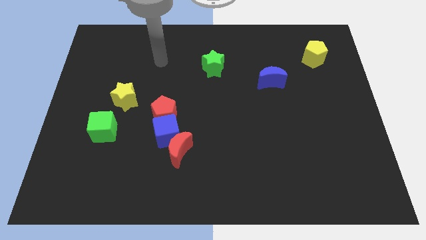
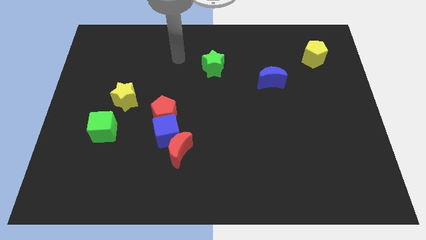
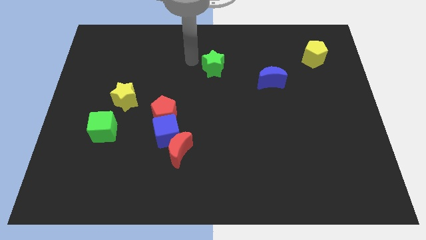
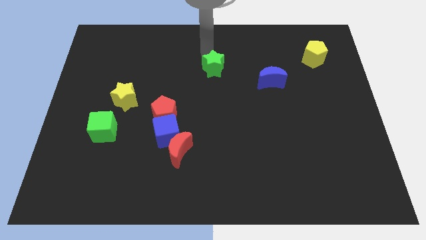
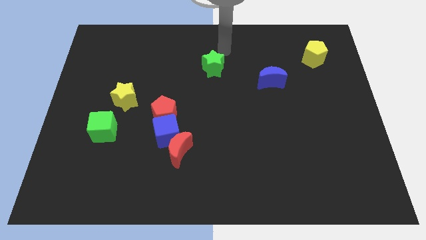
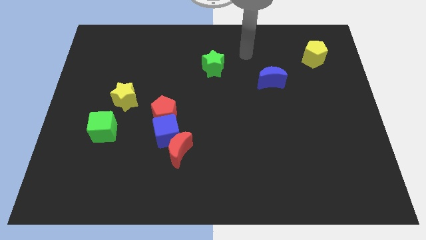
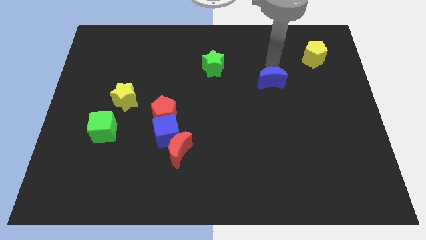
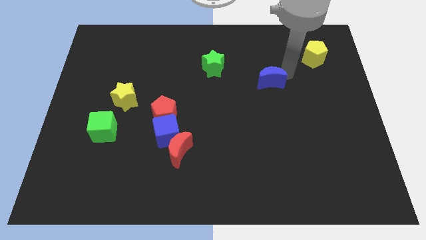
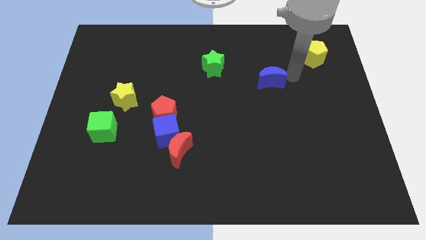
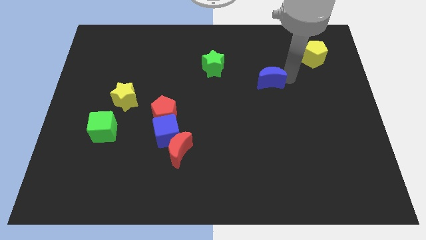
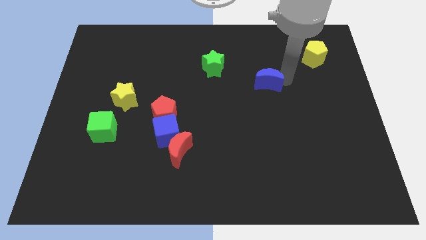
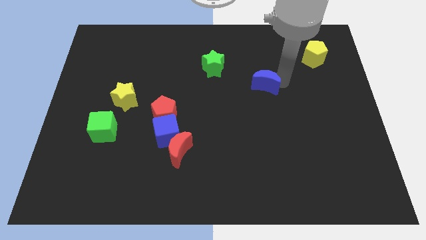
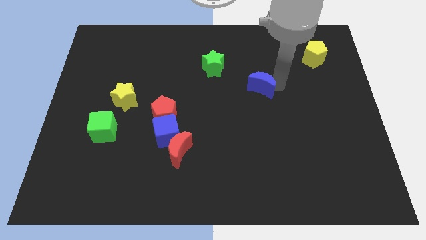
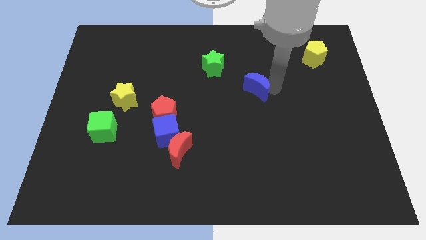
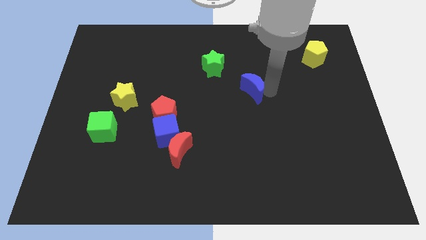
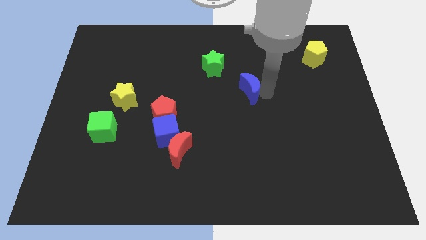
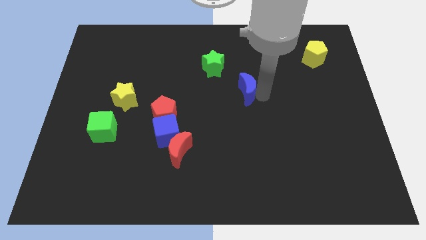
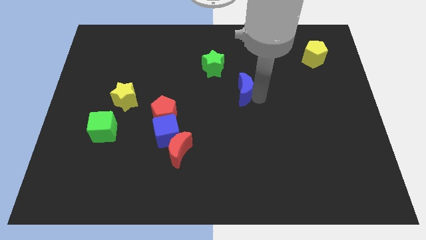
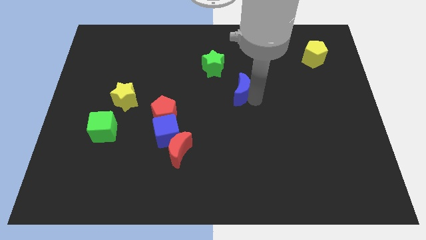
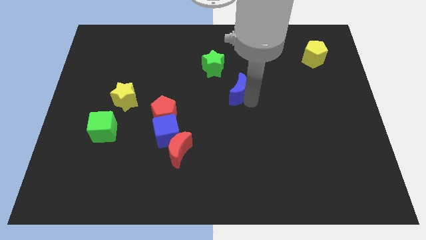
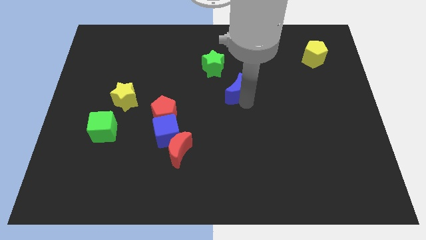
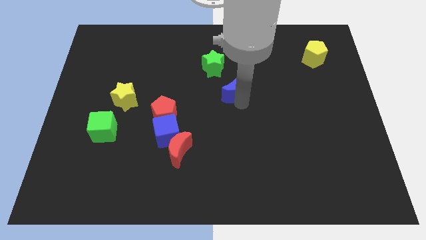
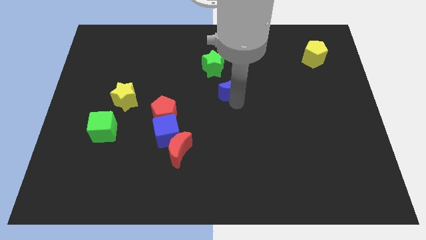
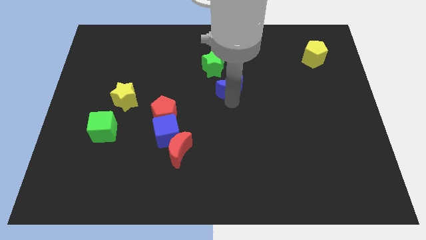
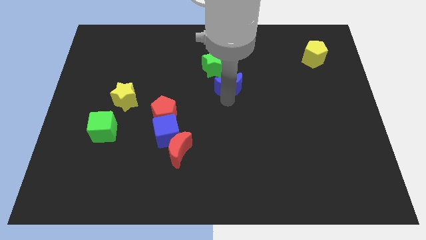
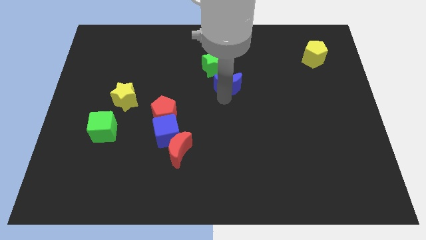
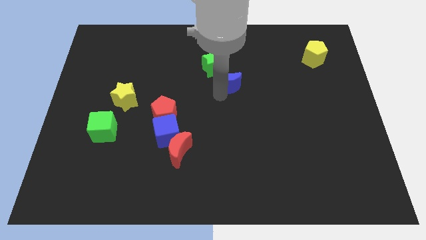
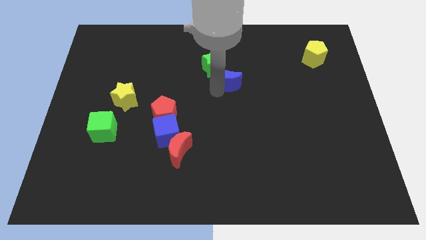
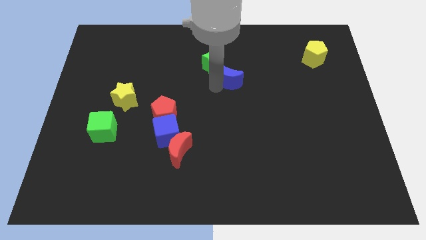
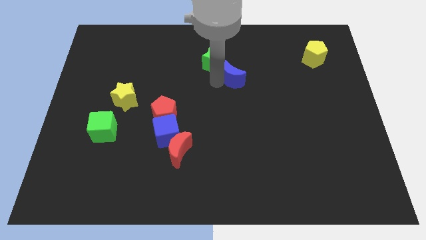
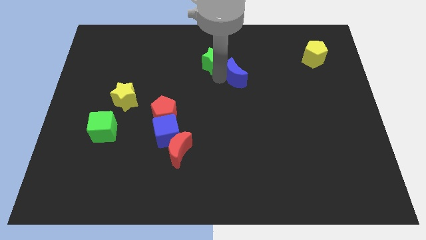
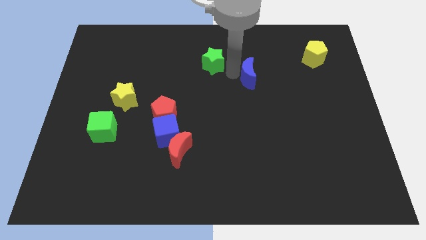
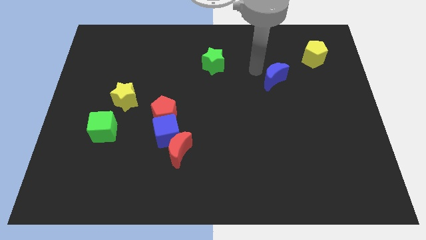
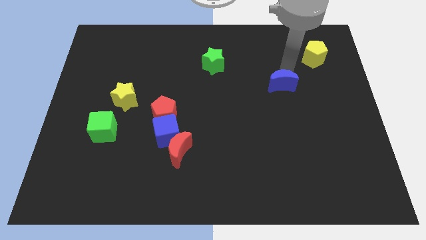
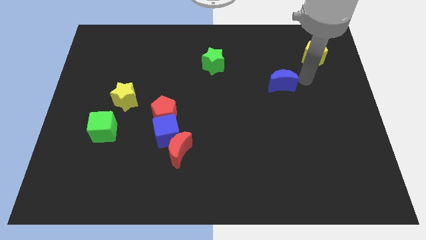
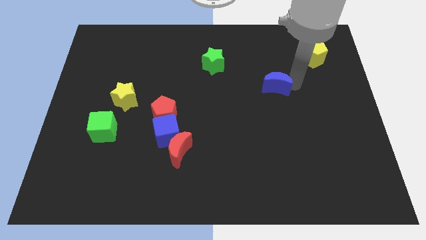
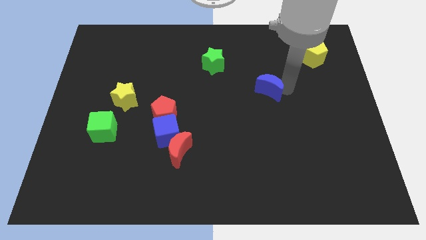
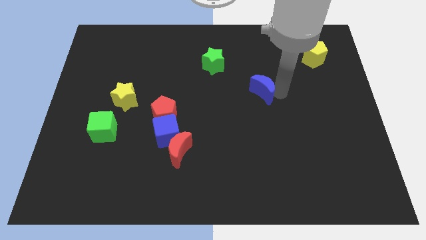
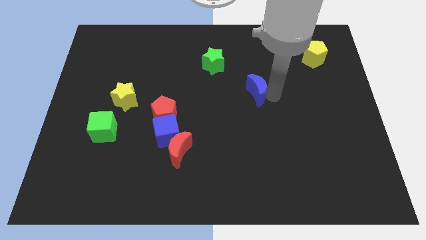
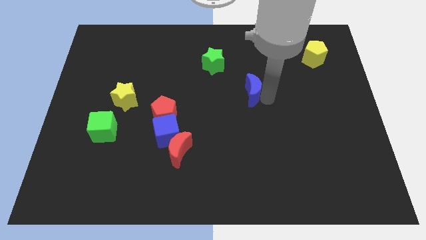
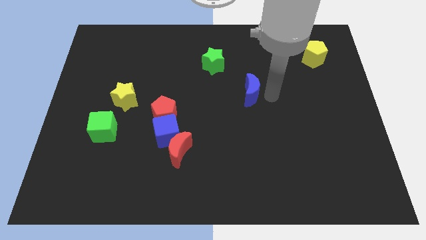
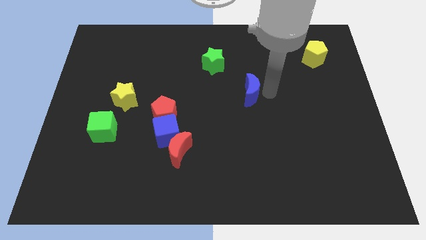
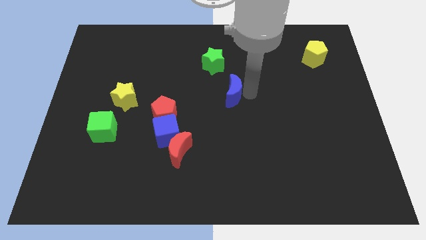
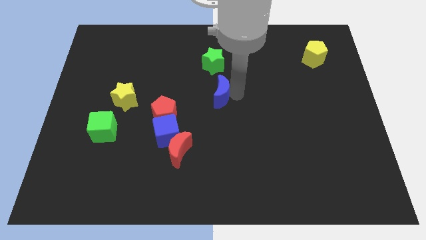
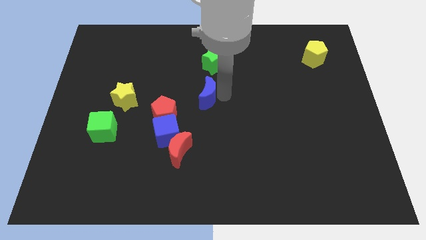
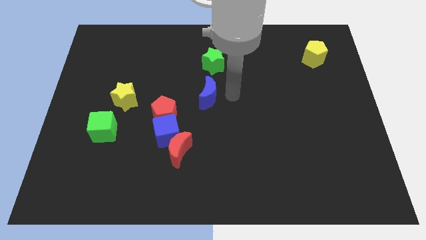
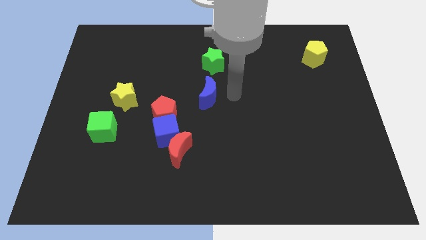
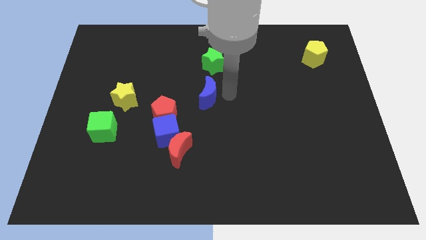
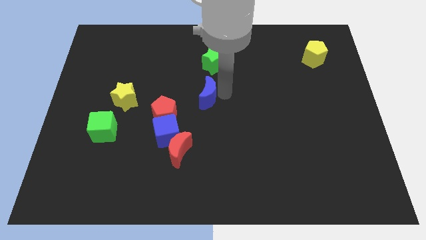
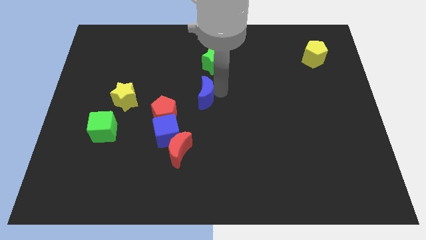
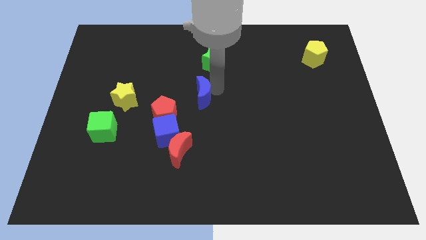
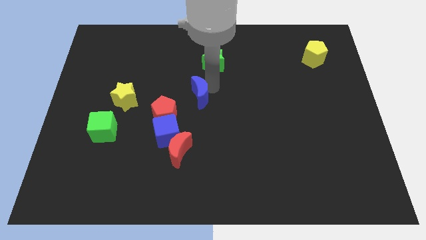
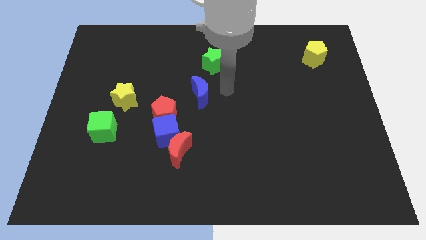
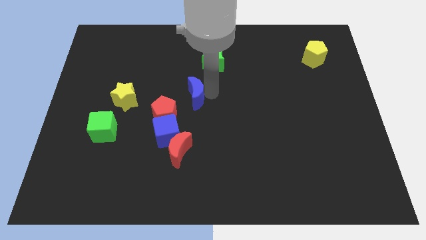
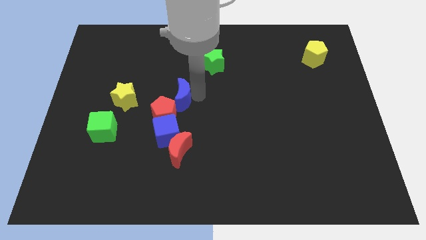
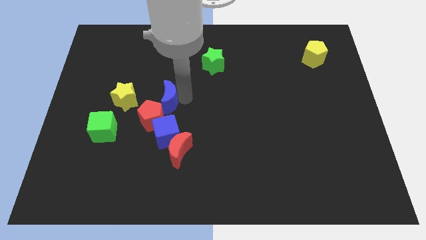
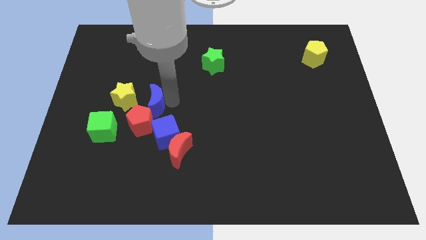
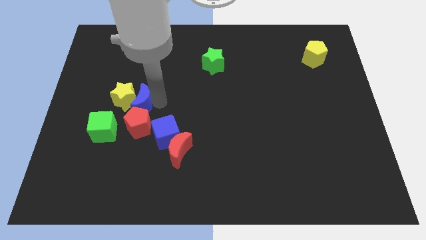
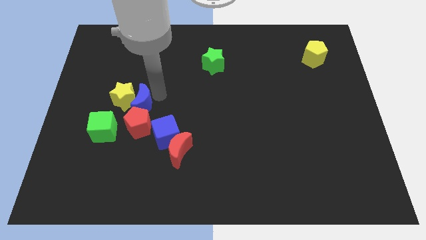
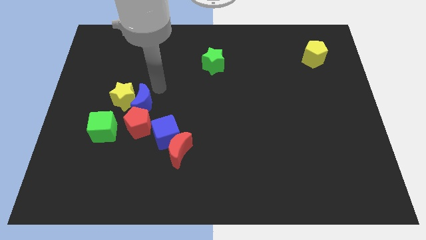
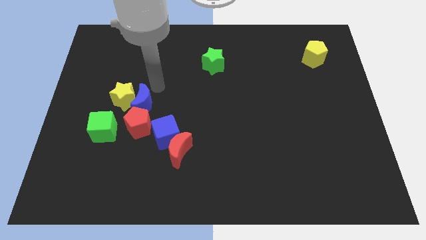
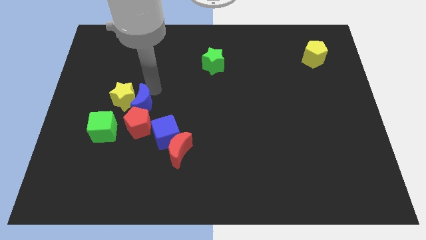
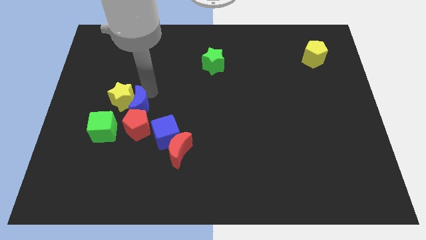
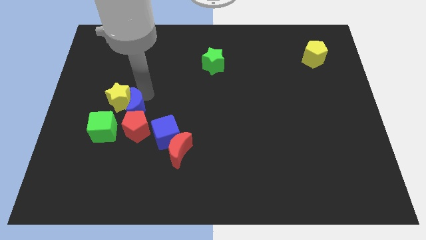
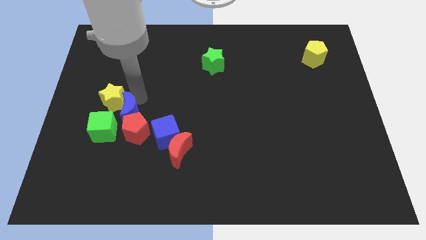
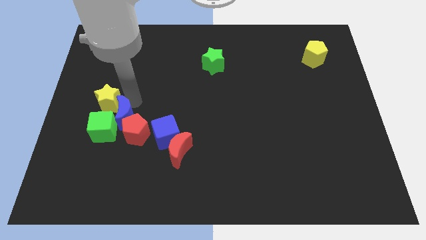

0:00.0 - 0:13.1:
put the blue moon to the green cube
